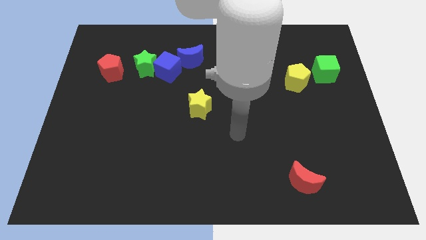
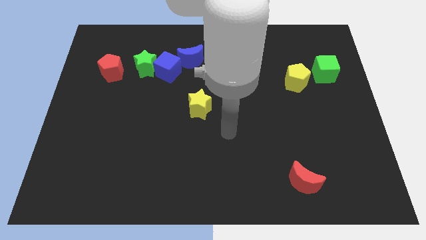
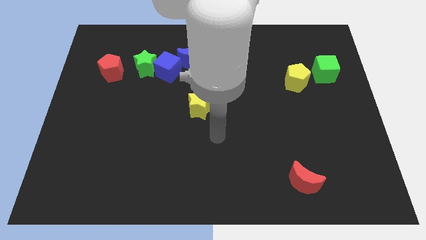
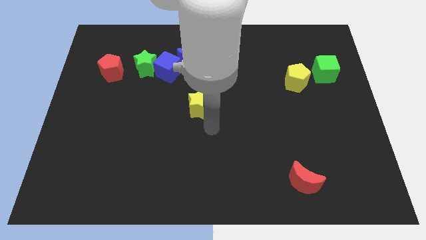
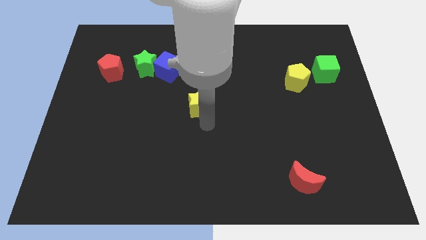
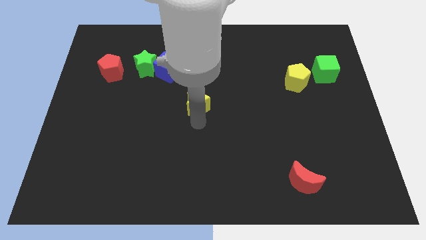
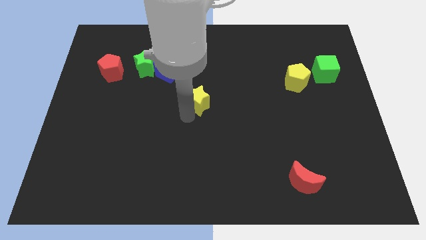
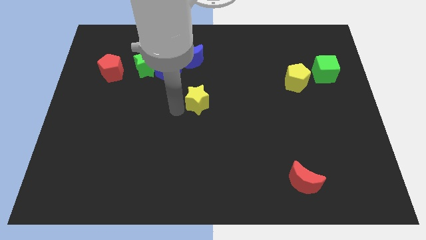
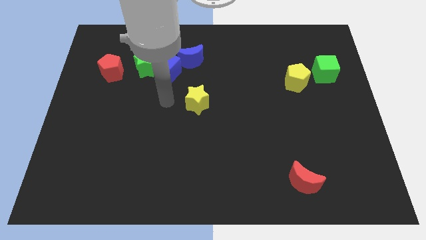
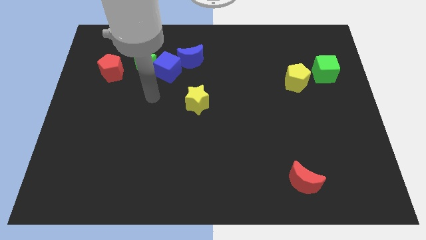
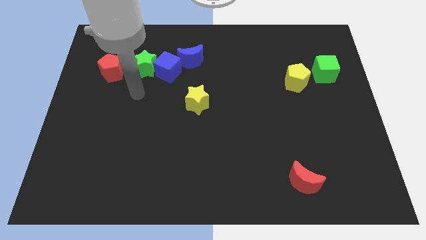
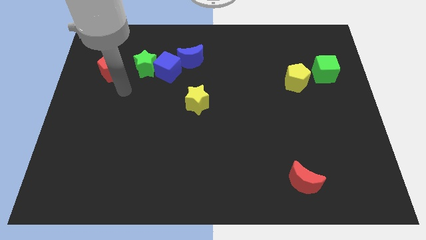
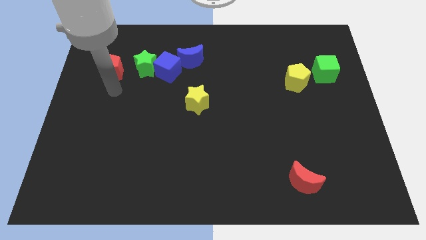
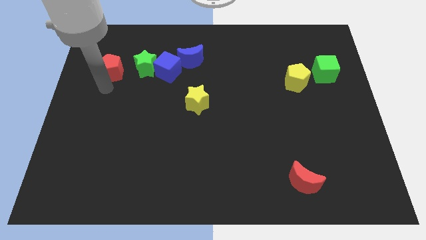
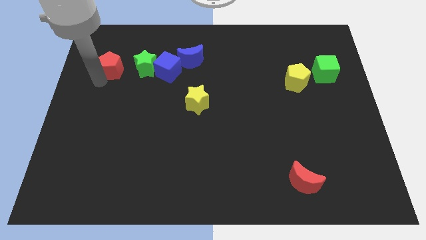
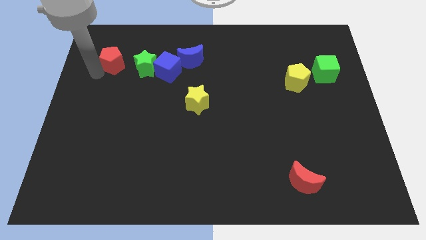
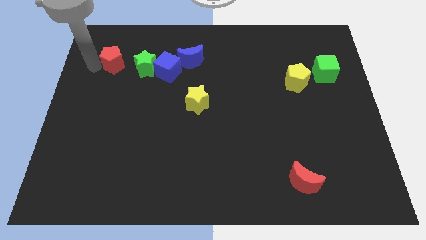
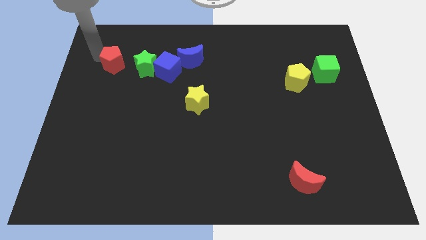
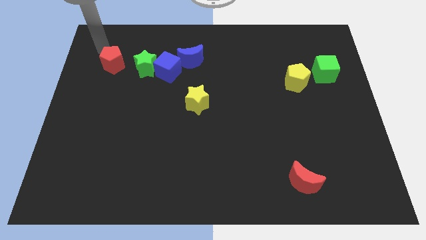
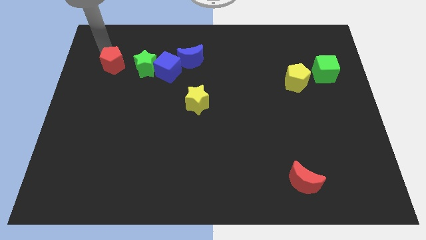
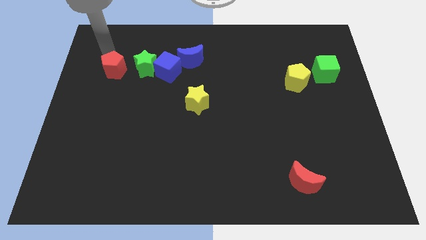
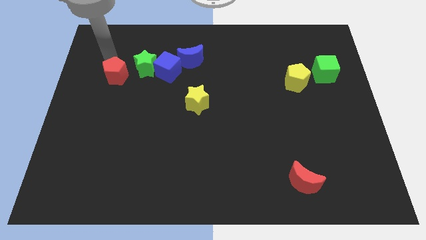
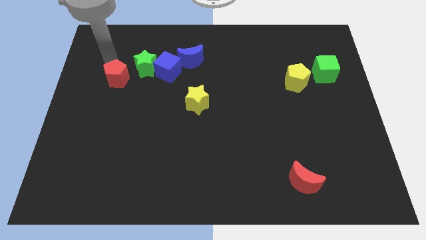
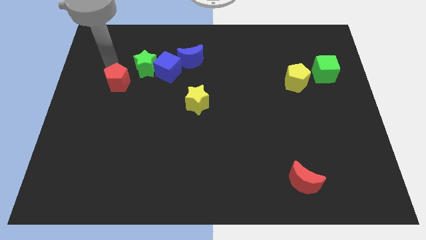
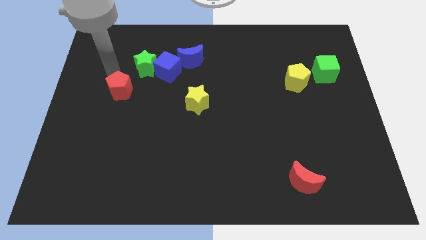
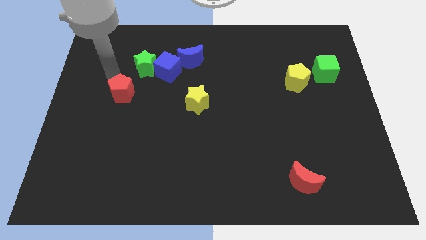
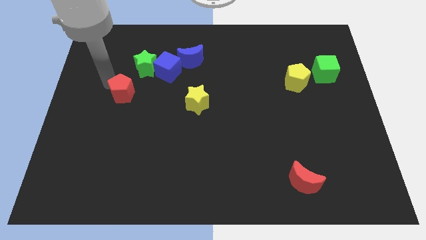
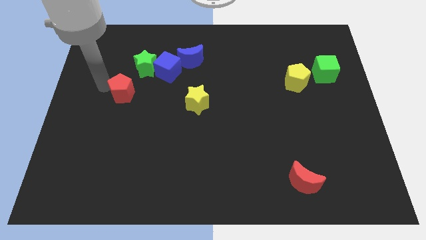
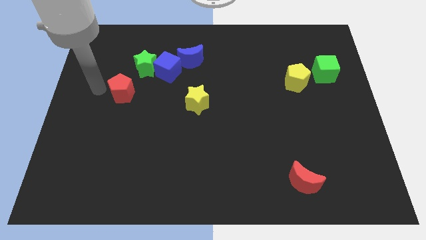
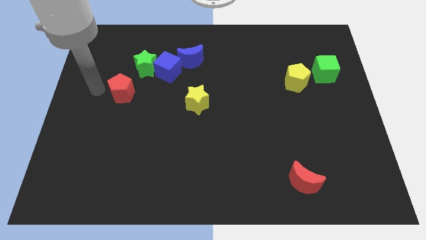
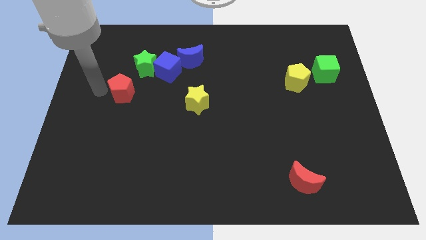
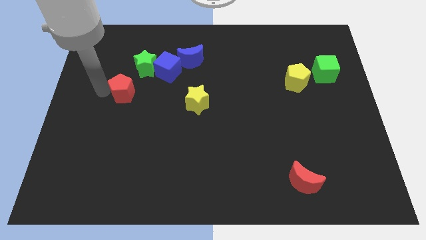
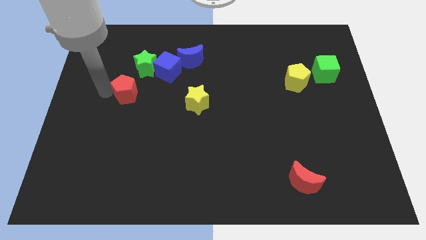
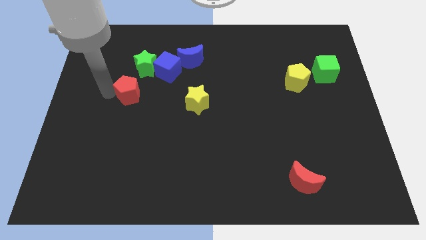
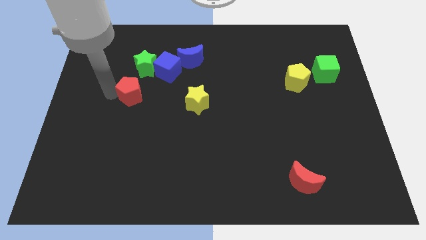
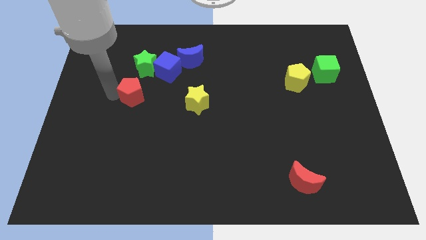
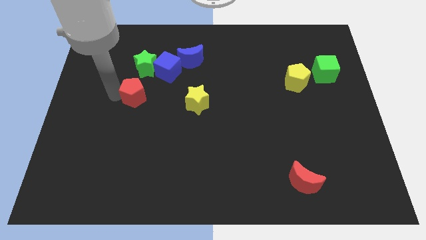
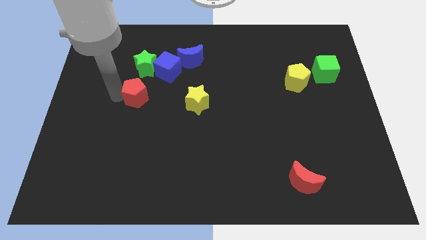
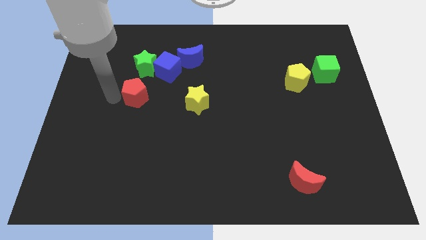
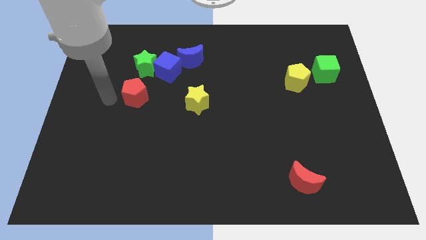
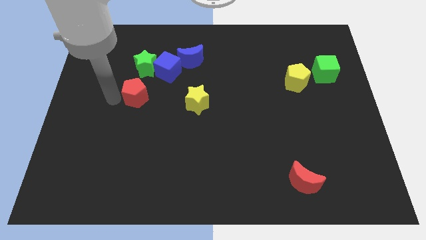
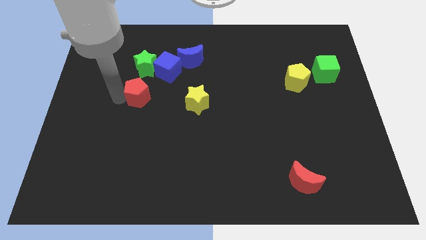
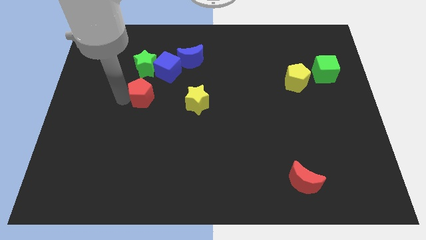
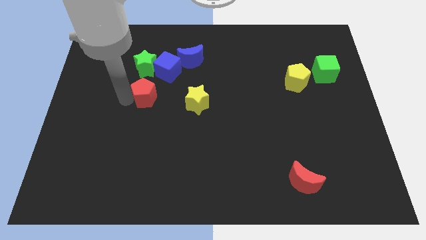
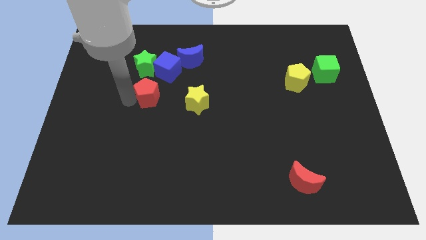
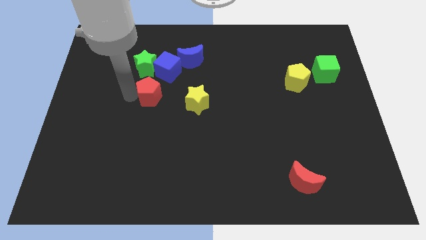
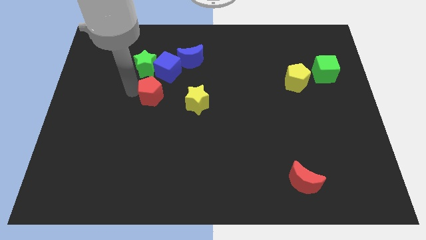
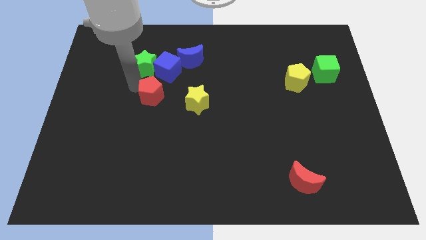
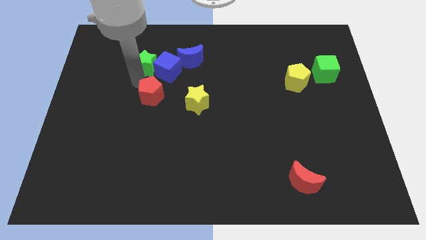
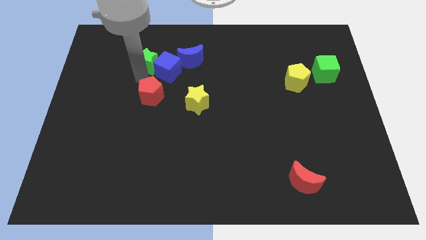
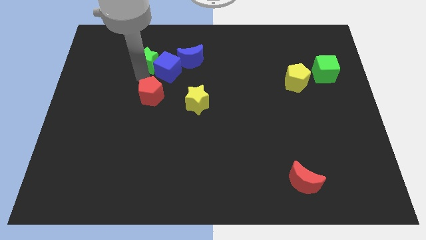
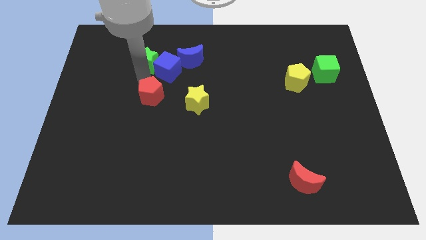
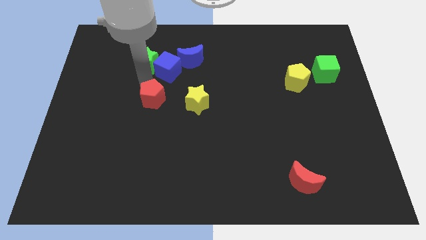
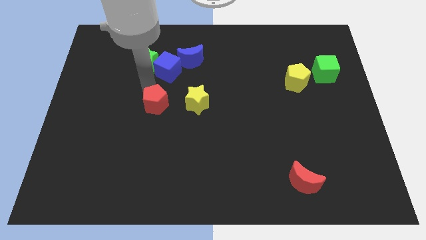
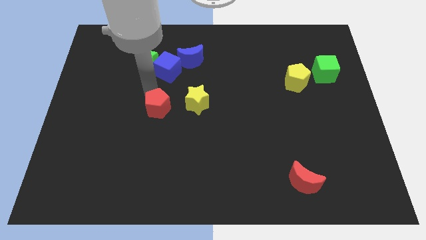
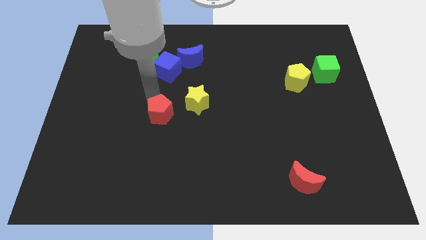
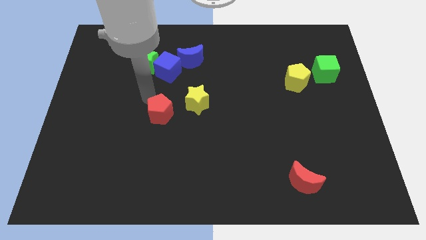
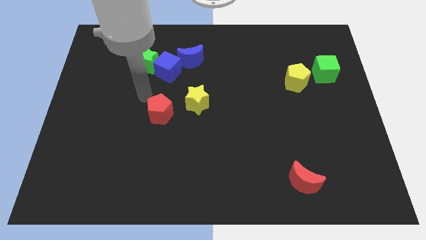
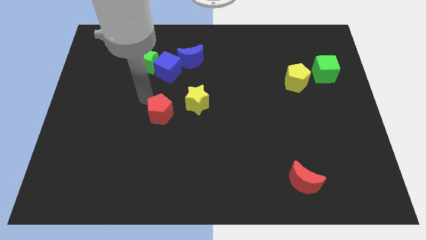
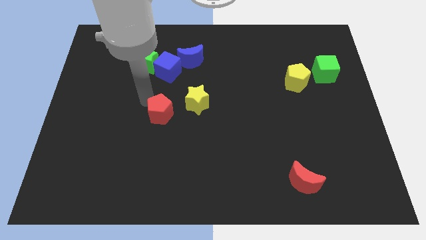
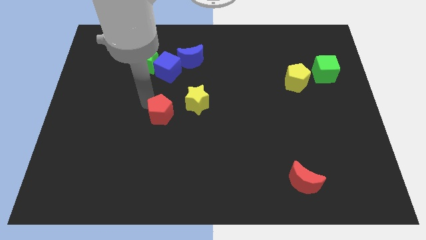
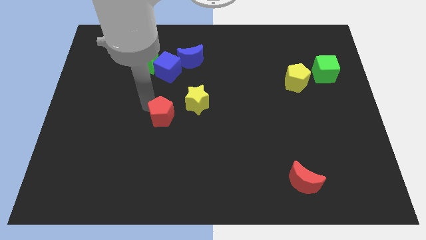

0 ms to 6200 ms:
push the red pentagon diagonally down and right

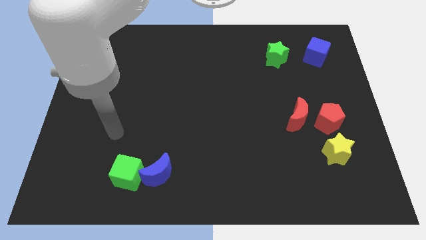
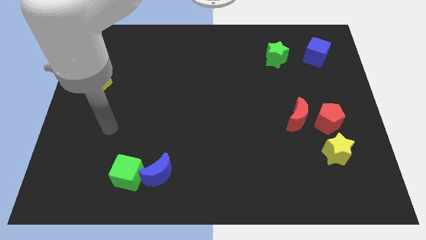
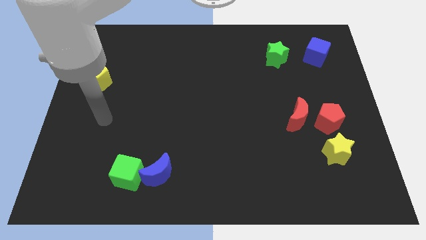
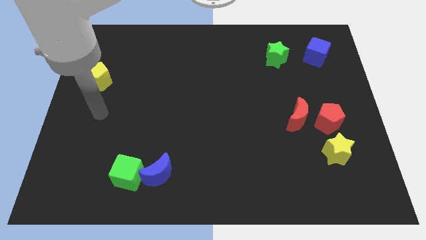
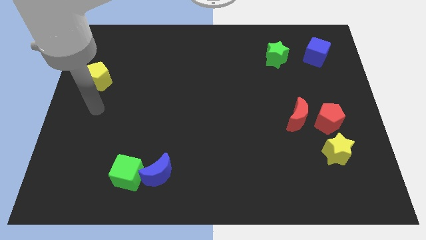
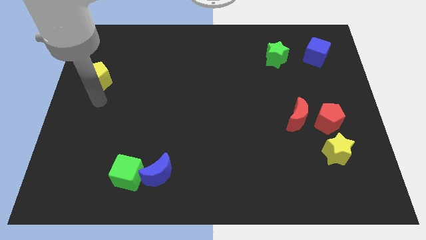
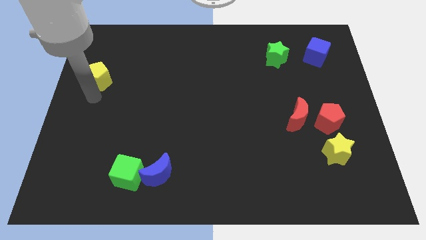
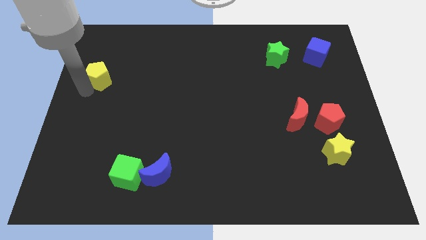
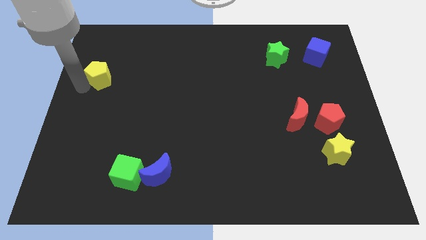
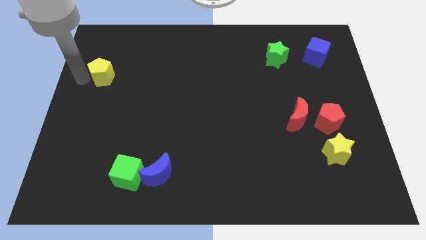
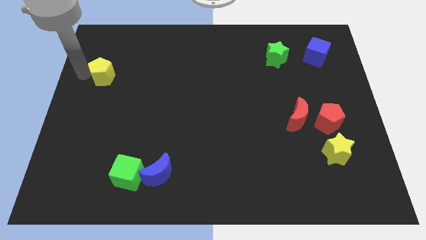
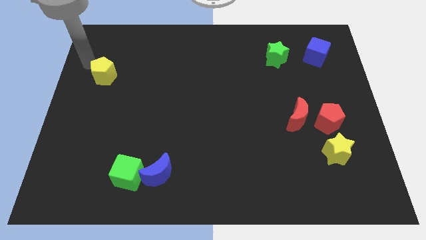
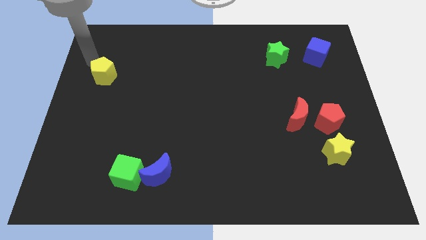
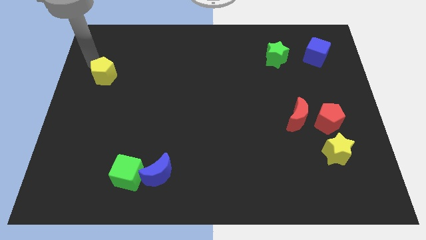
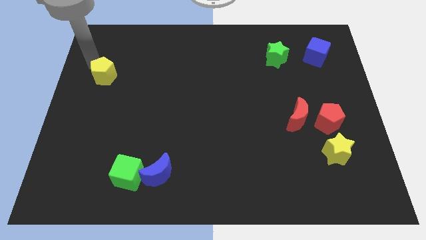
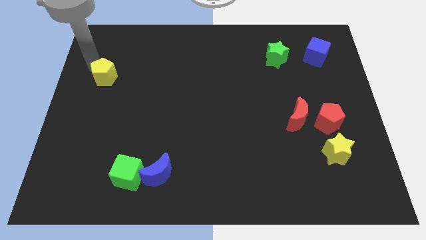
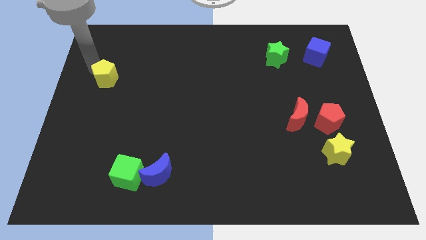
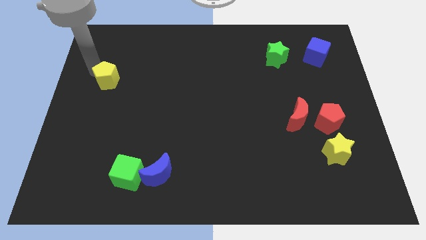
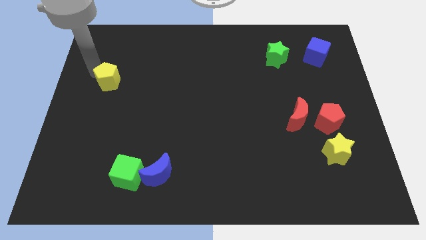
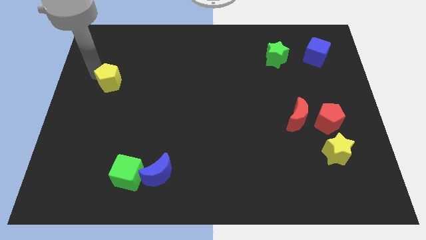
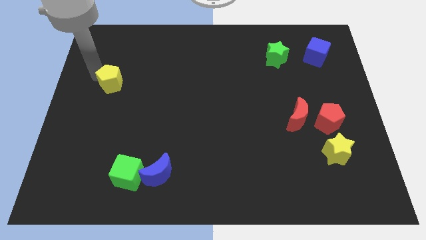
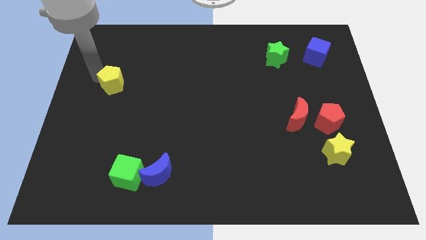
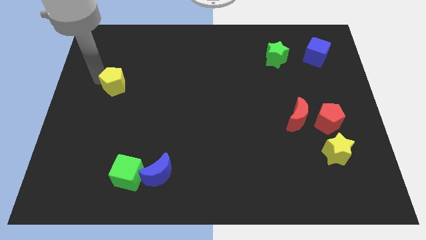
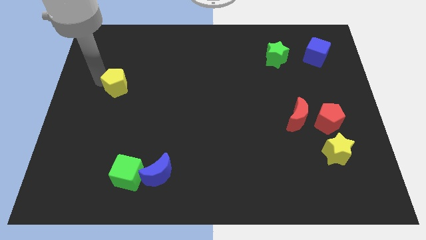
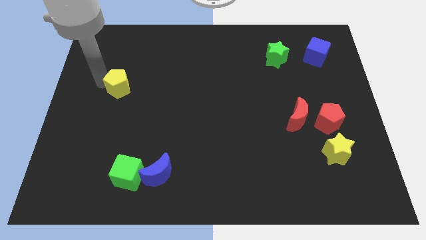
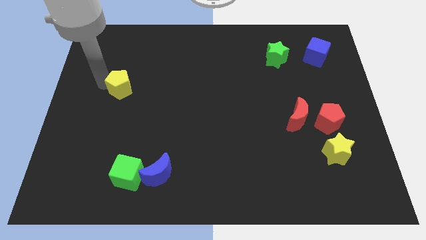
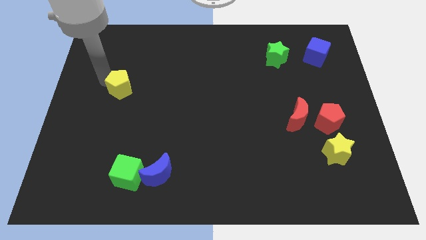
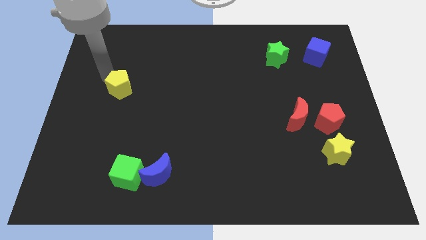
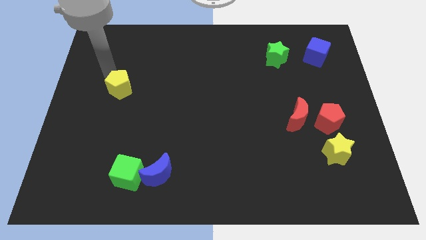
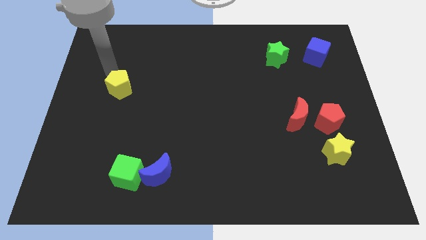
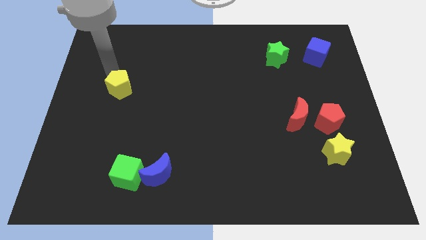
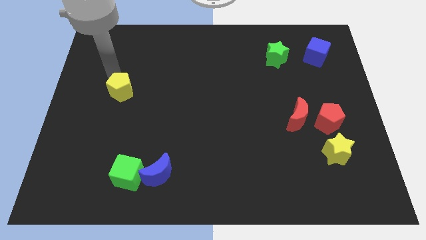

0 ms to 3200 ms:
slide the yellow pentagon diagonally down and right a little bit
